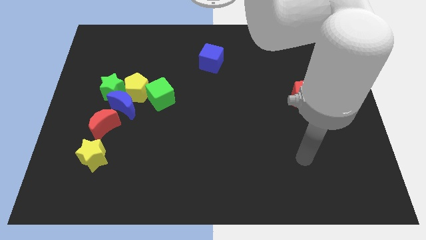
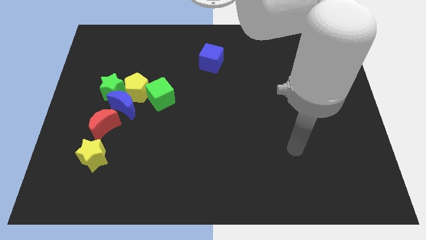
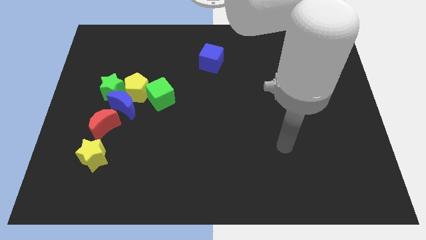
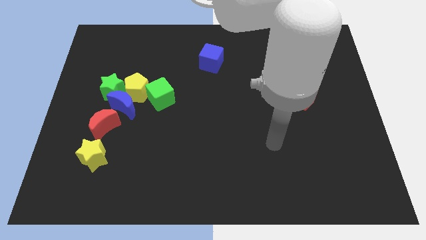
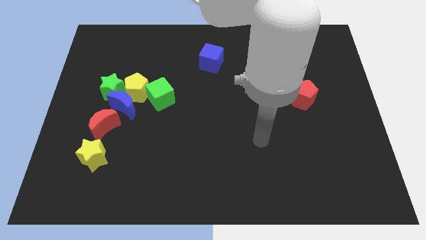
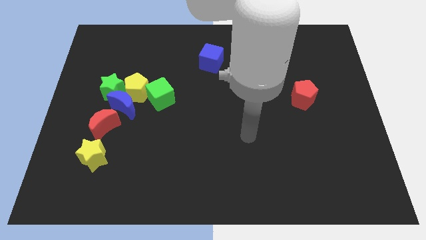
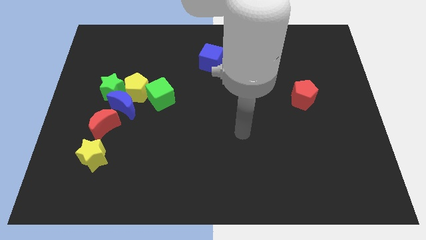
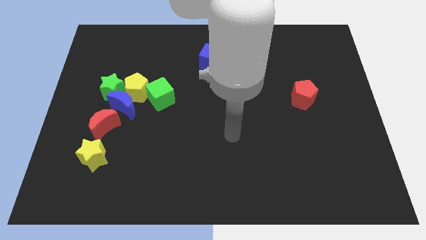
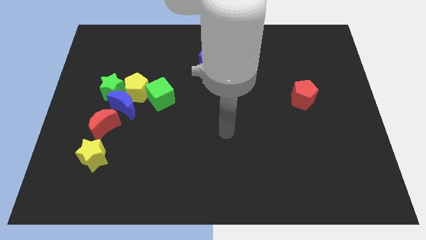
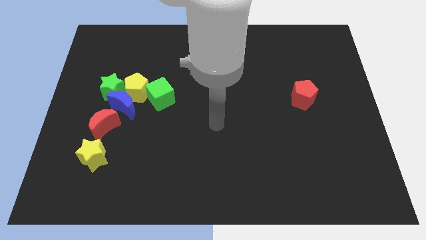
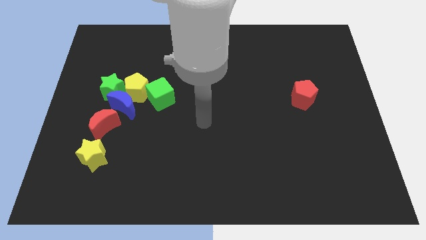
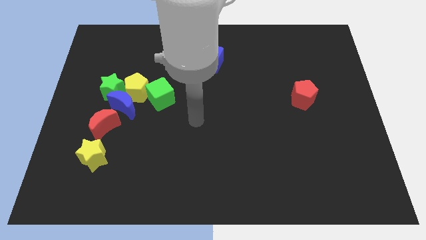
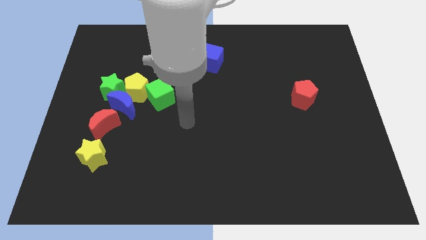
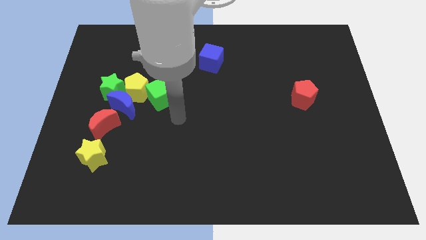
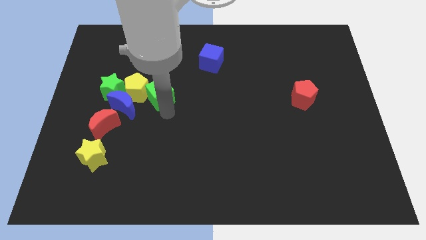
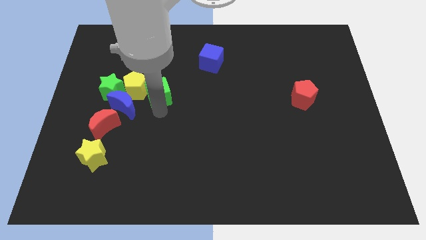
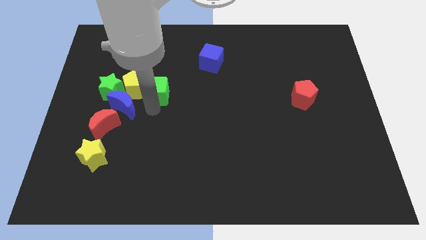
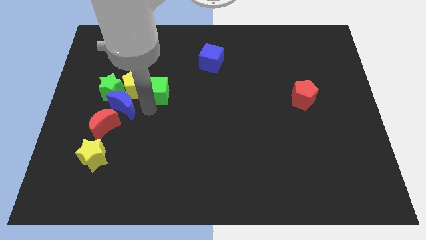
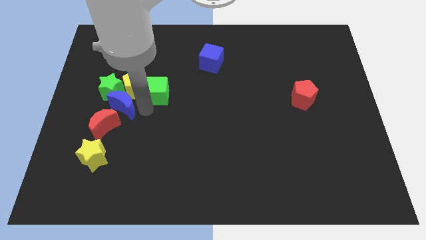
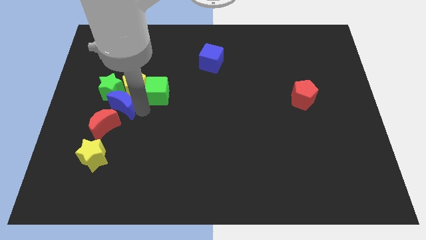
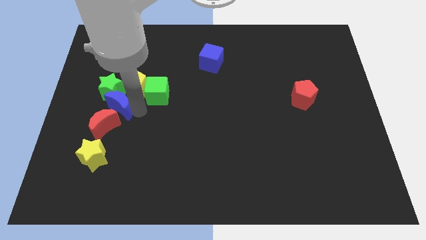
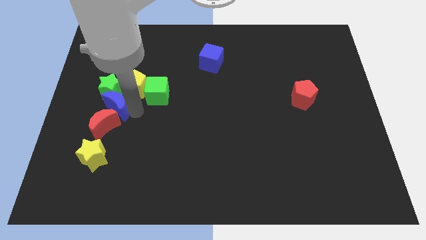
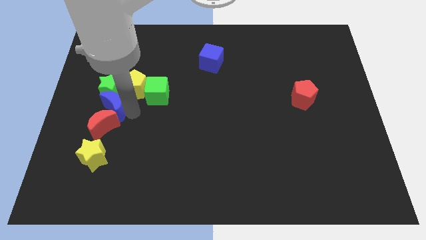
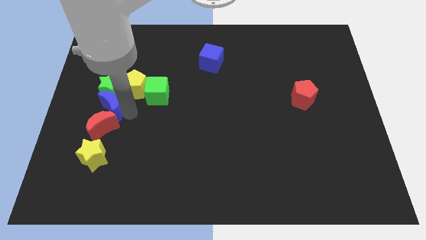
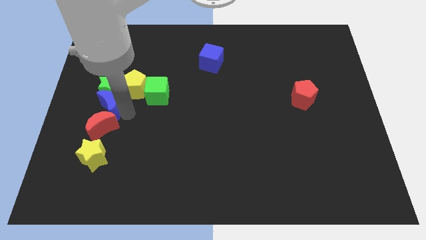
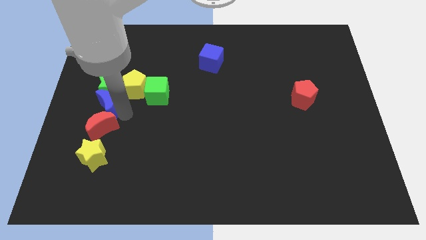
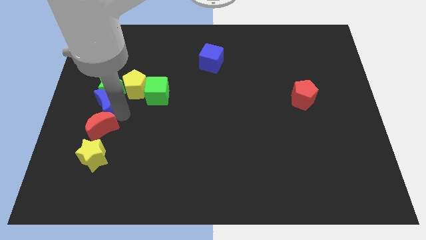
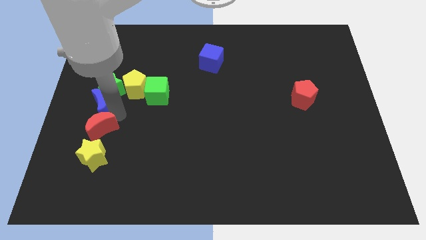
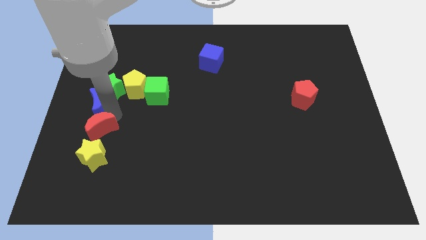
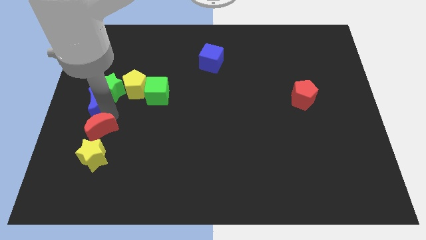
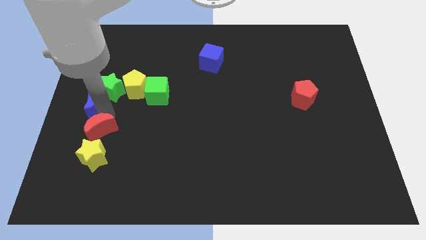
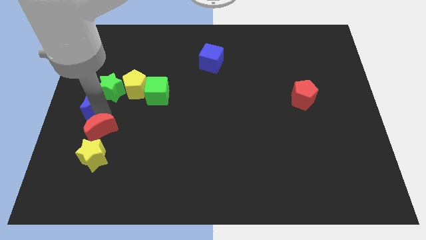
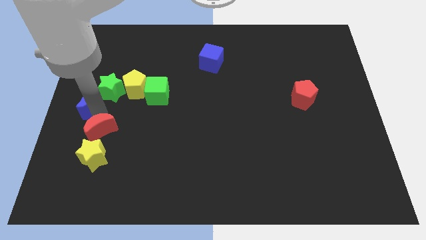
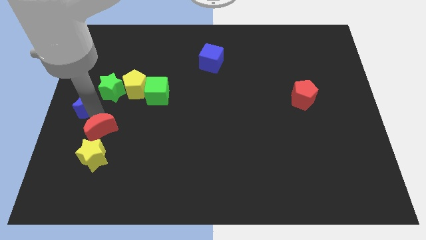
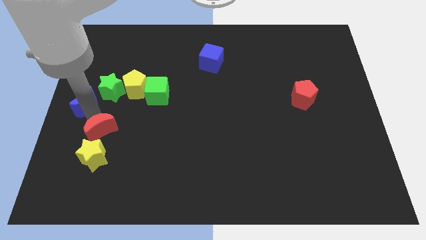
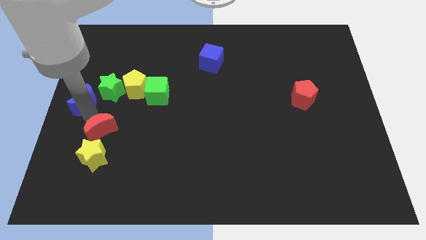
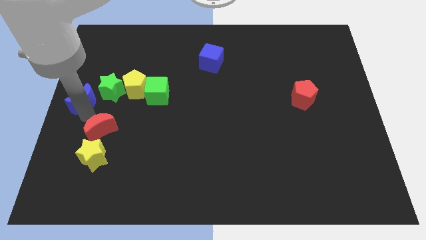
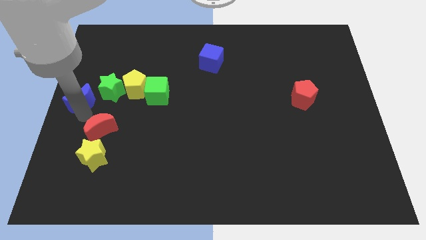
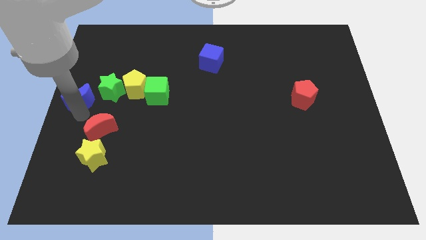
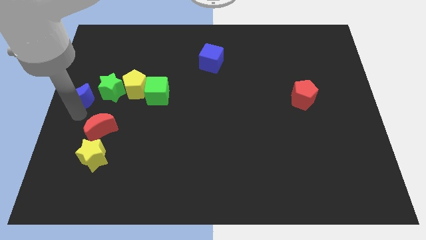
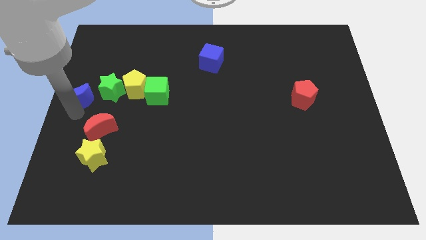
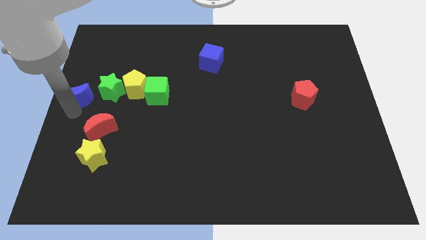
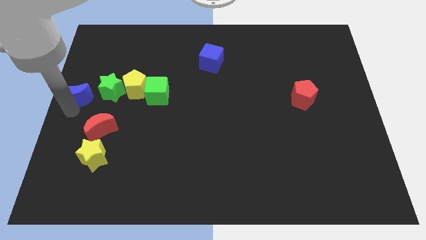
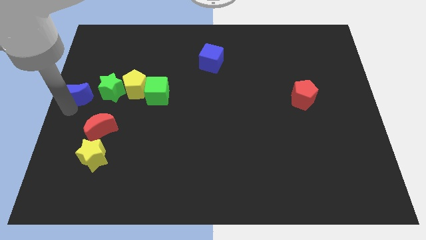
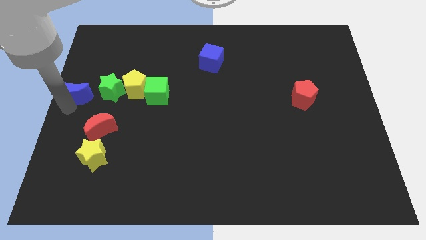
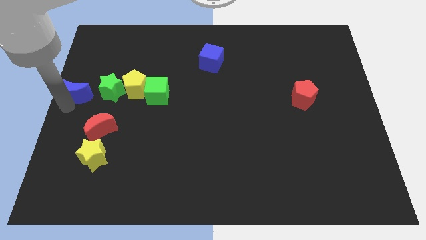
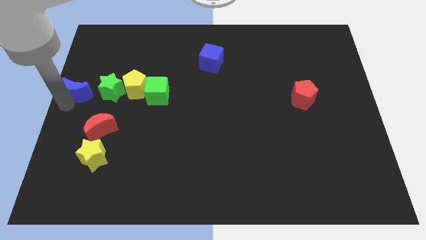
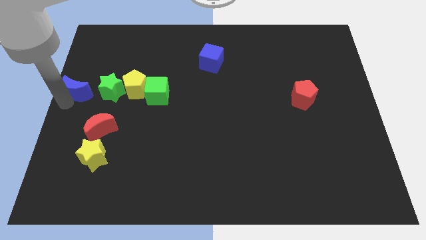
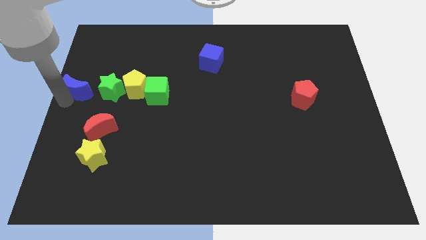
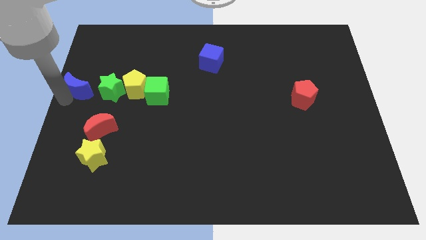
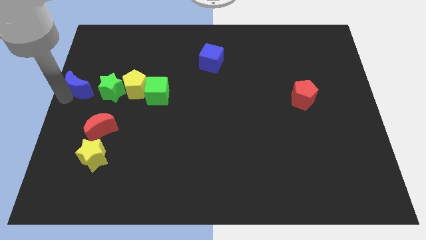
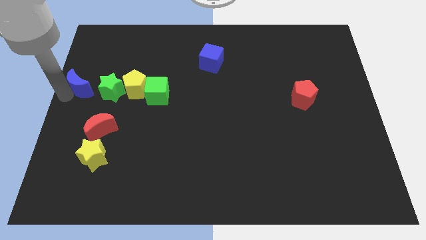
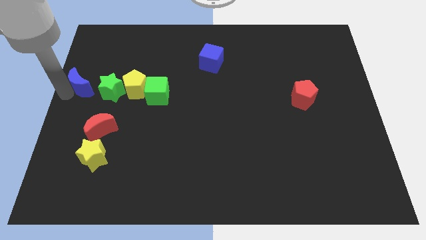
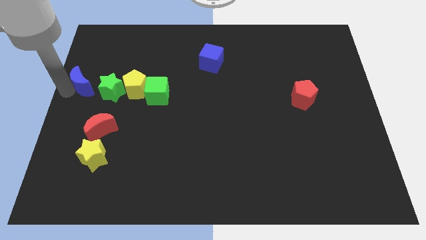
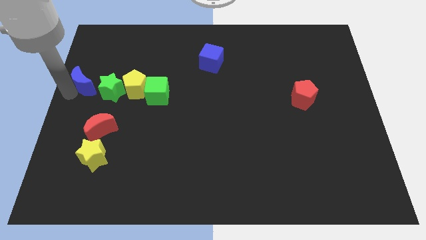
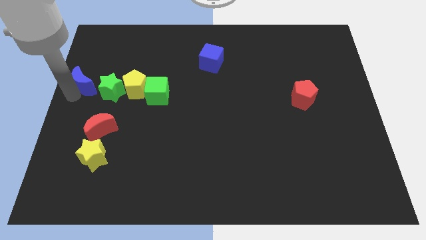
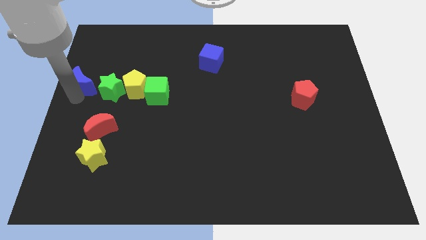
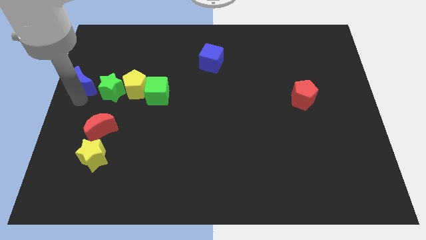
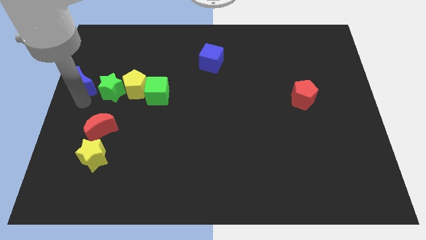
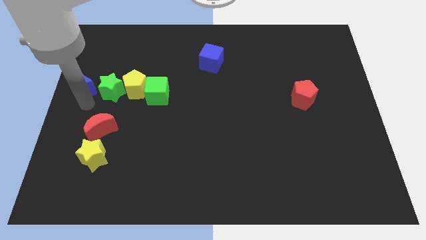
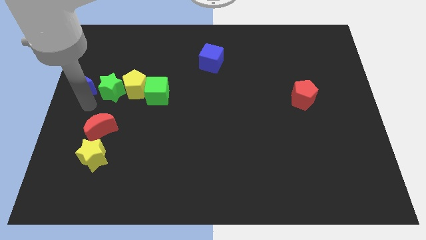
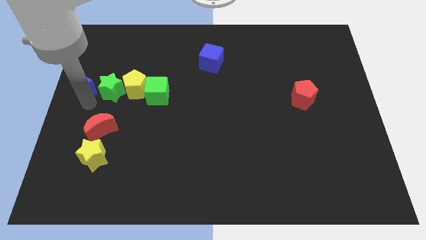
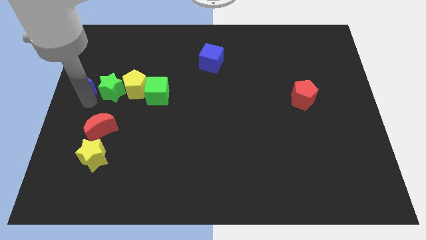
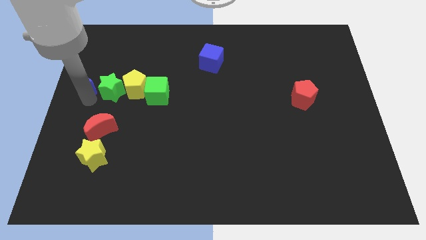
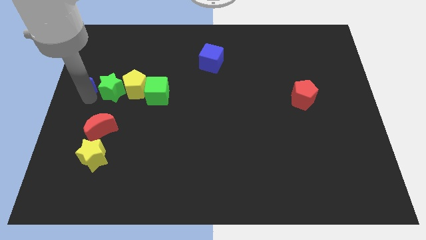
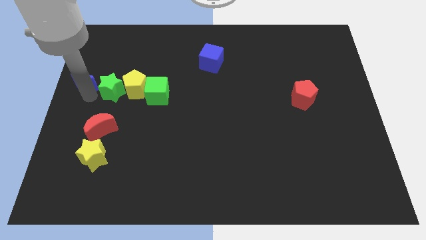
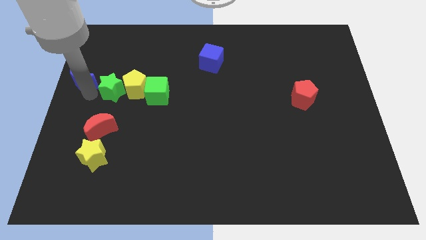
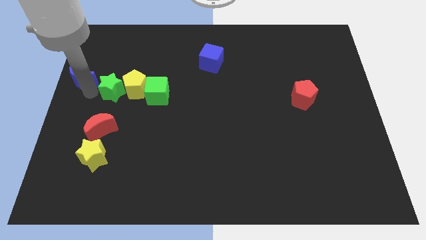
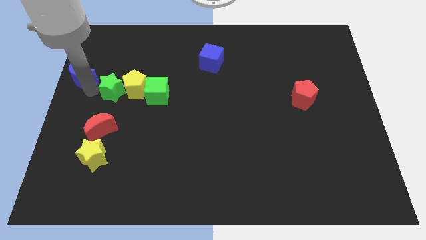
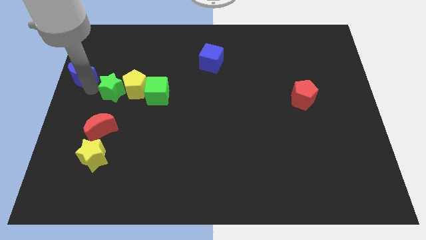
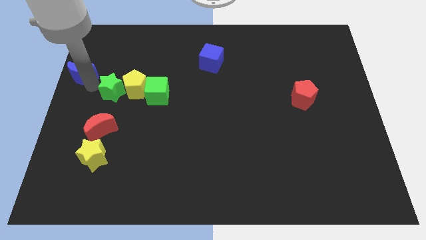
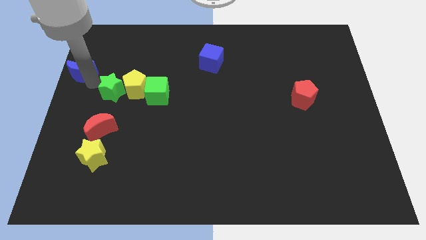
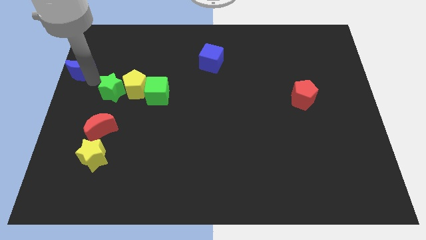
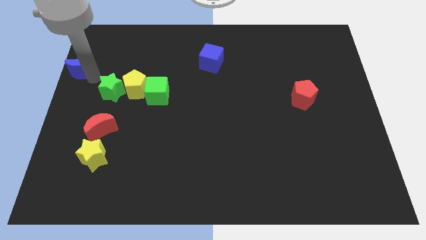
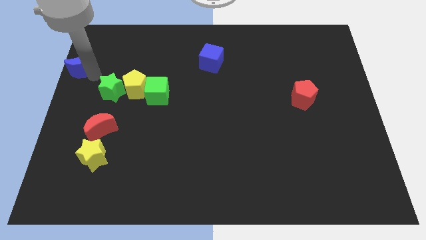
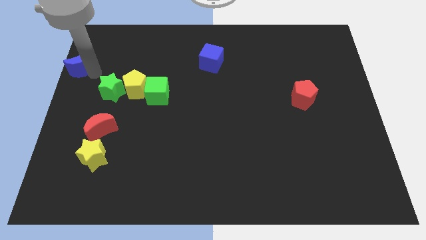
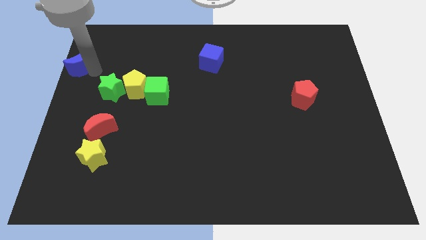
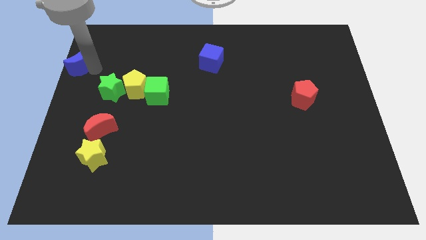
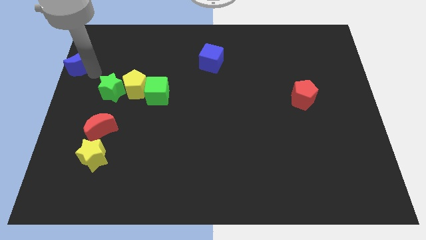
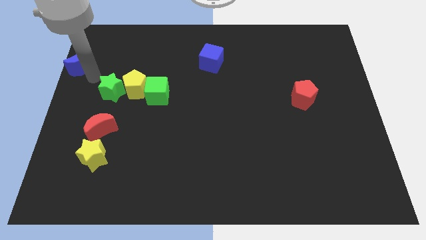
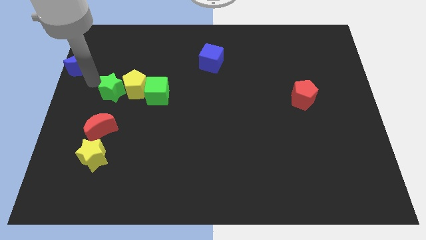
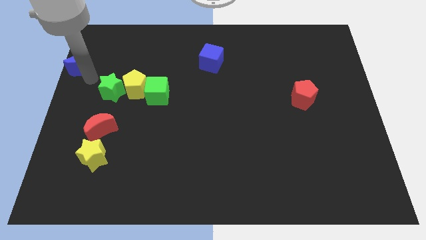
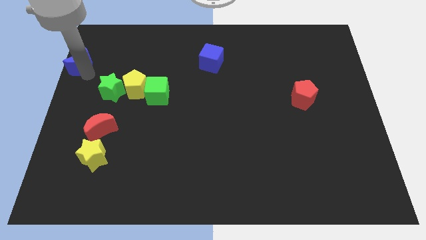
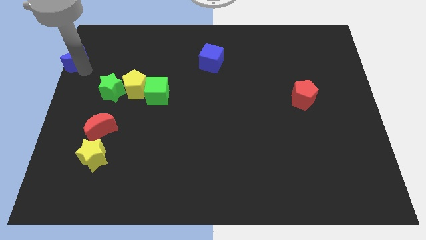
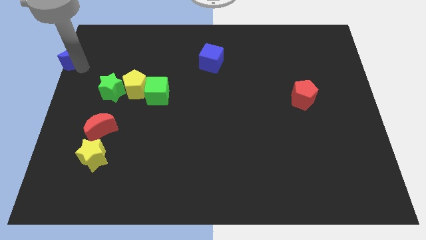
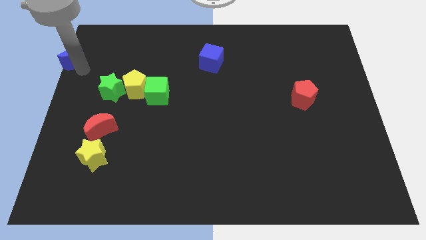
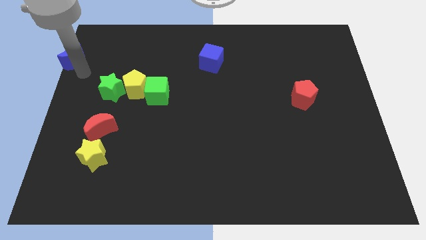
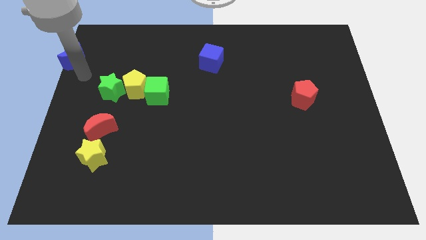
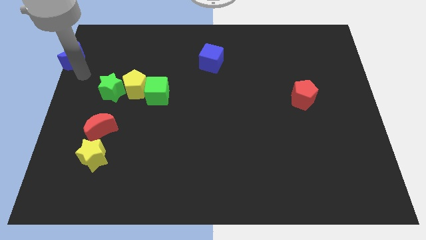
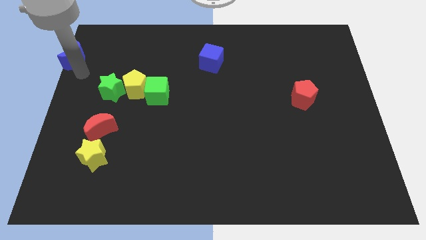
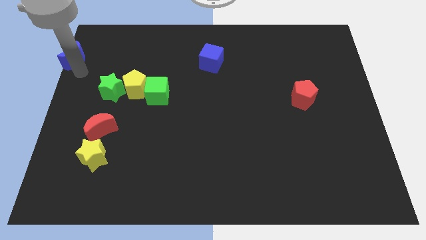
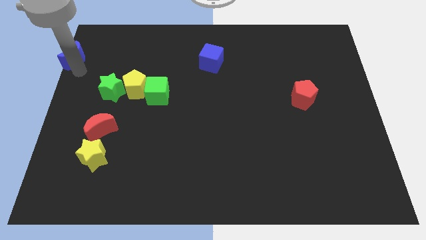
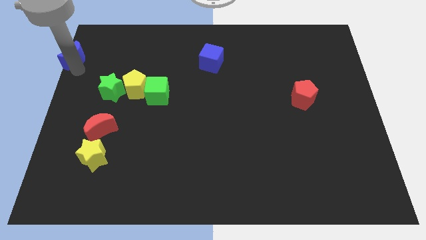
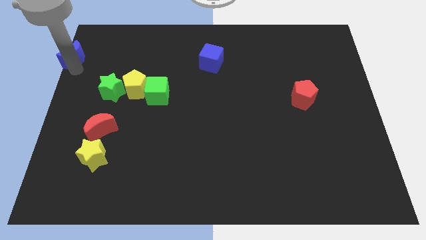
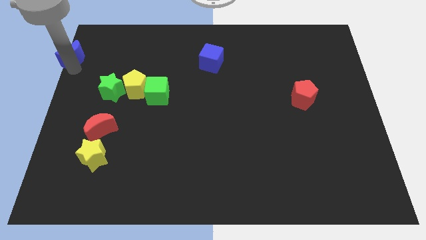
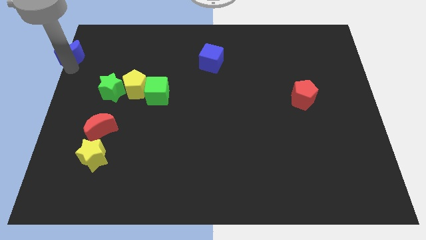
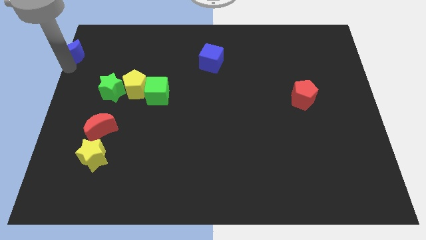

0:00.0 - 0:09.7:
push the blue moon to the top left corner
